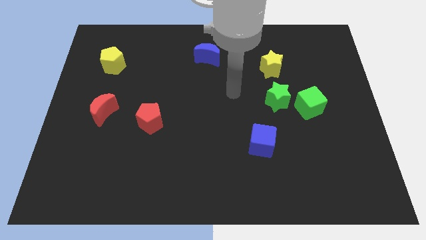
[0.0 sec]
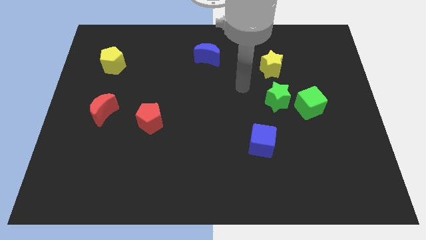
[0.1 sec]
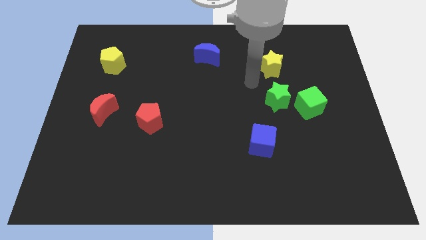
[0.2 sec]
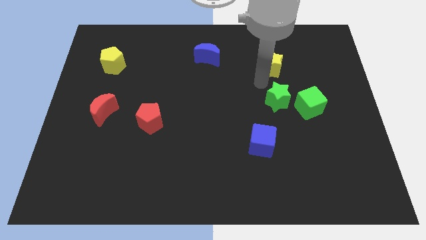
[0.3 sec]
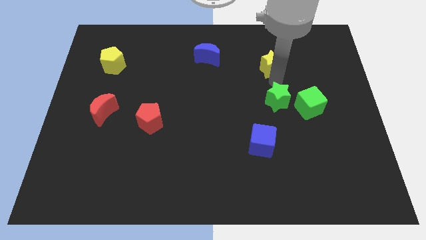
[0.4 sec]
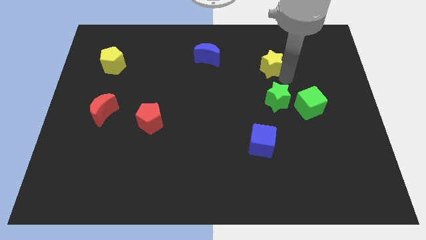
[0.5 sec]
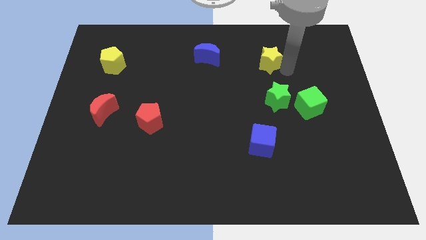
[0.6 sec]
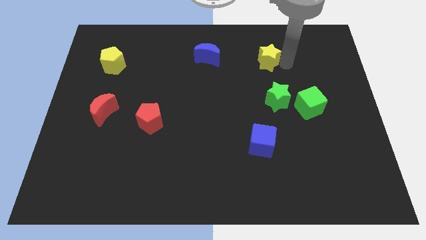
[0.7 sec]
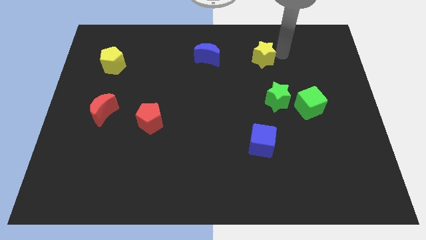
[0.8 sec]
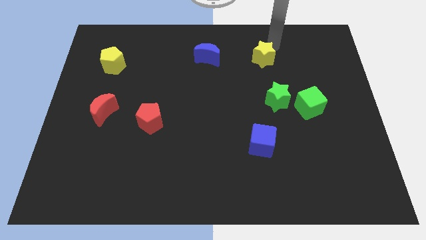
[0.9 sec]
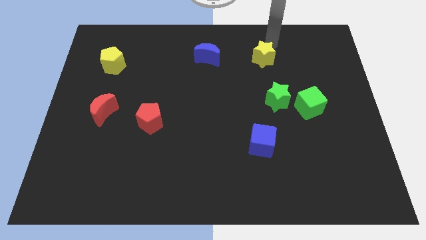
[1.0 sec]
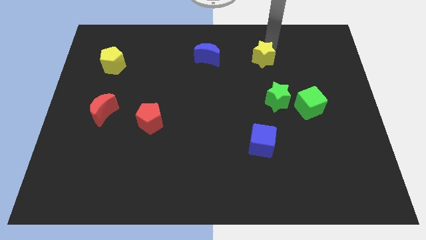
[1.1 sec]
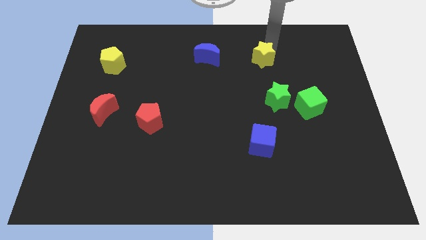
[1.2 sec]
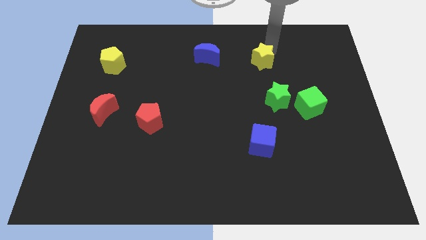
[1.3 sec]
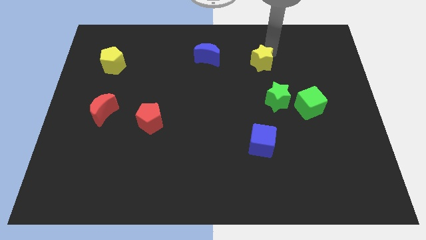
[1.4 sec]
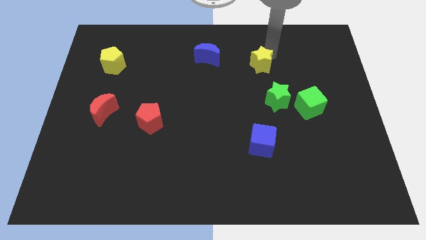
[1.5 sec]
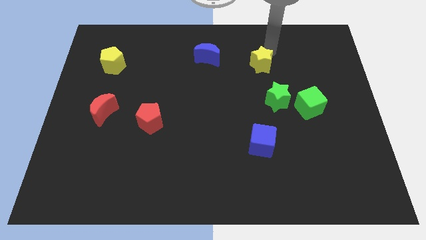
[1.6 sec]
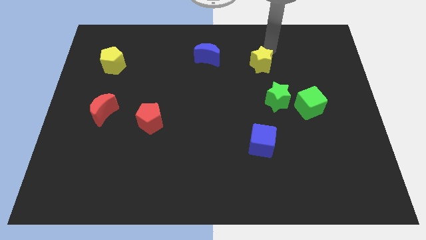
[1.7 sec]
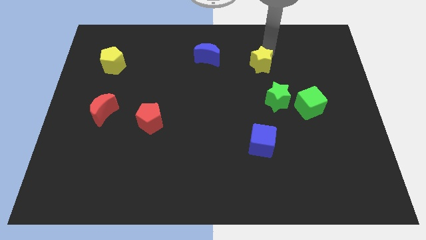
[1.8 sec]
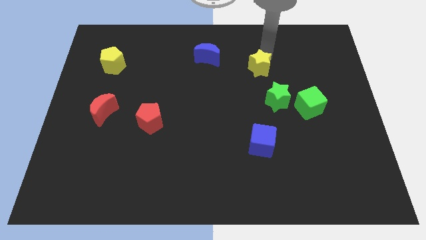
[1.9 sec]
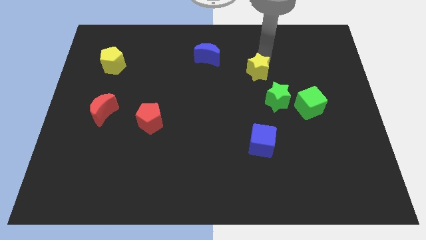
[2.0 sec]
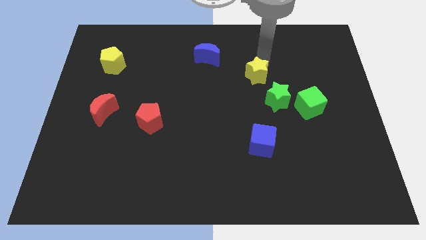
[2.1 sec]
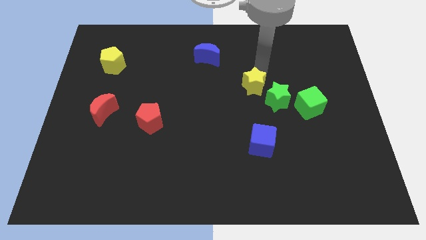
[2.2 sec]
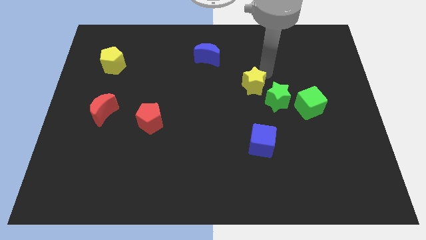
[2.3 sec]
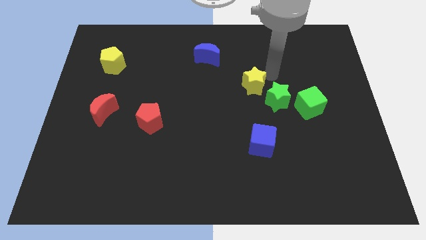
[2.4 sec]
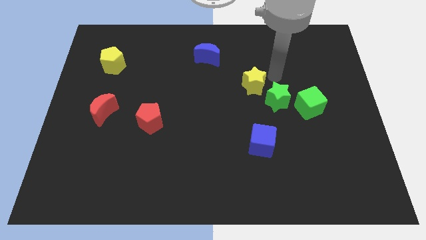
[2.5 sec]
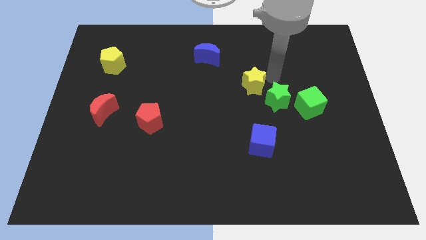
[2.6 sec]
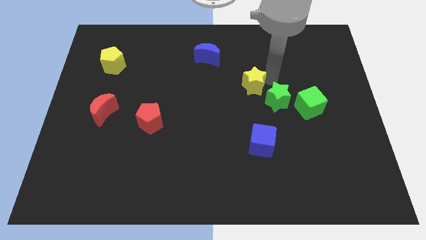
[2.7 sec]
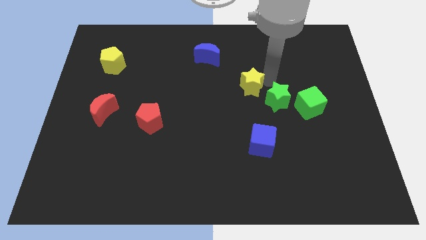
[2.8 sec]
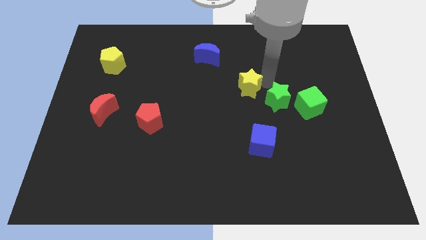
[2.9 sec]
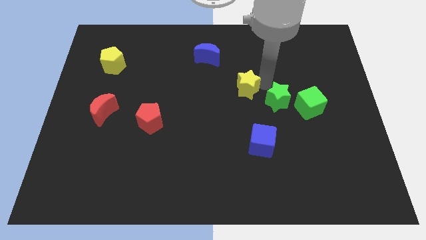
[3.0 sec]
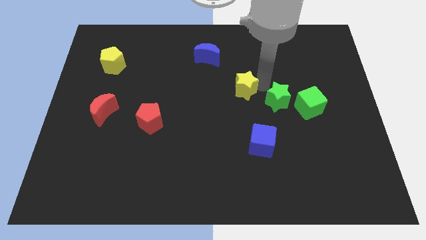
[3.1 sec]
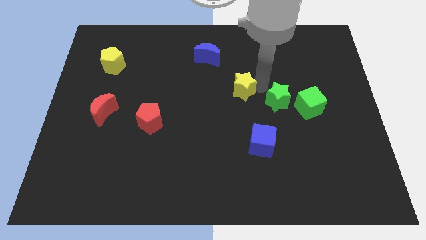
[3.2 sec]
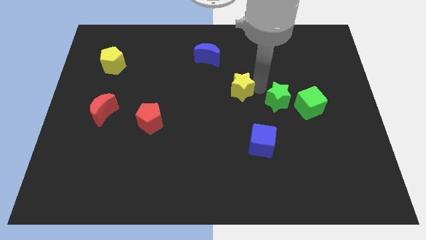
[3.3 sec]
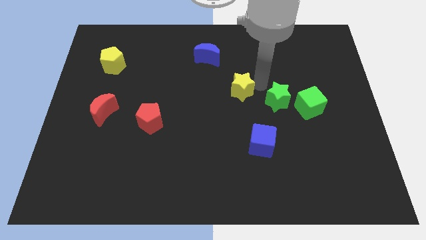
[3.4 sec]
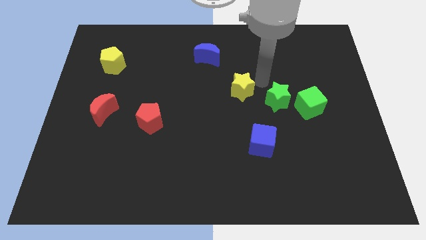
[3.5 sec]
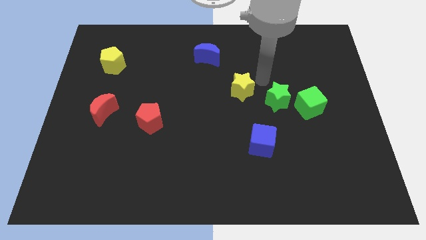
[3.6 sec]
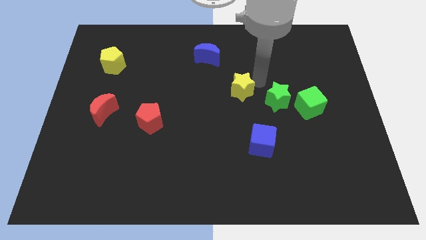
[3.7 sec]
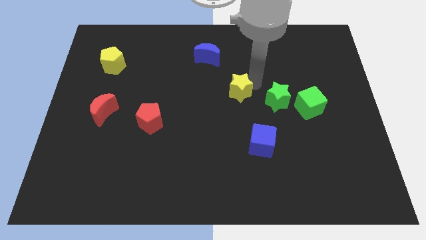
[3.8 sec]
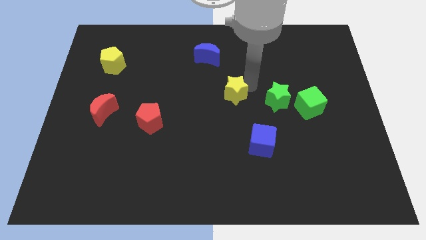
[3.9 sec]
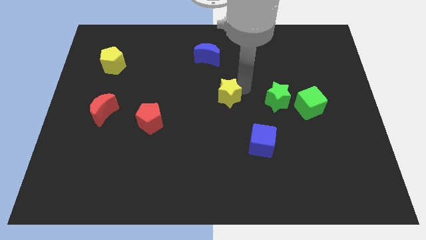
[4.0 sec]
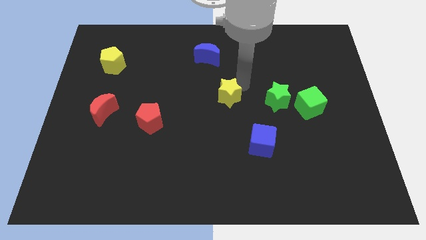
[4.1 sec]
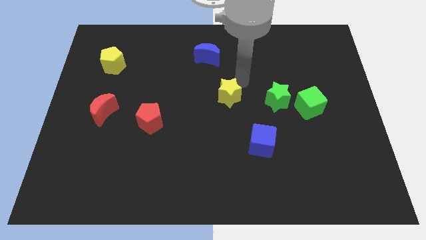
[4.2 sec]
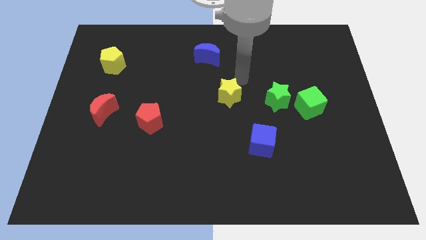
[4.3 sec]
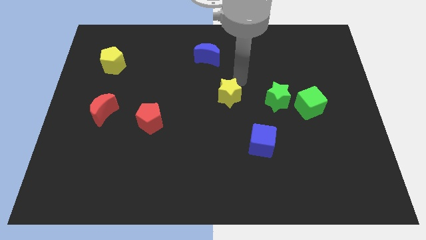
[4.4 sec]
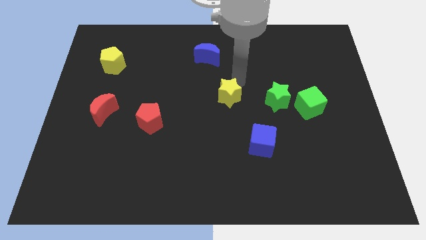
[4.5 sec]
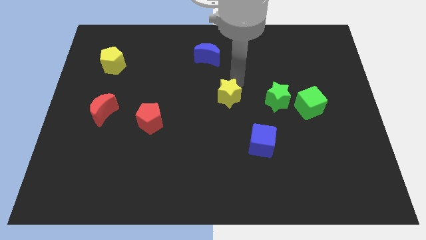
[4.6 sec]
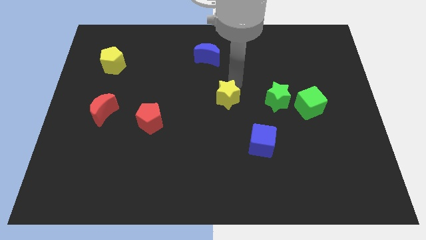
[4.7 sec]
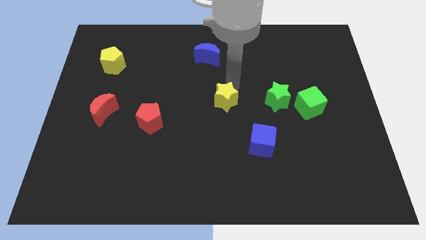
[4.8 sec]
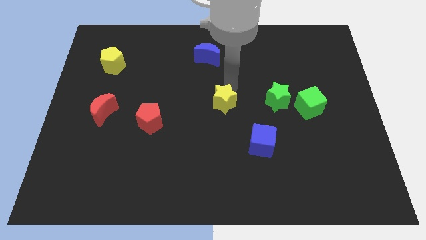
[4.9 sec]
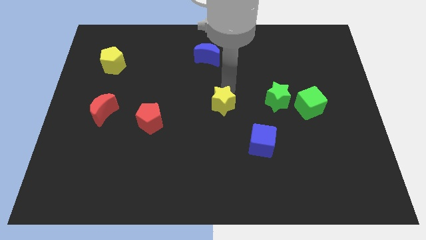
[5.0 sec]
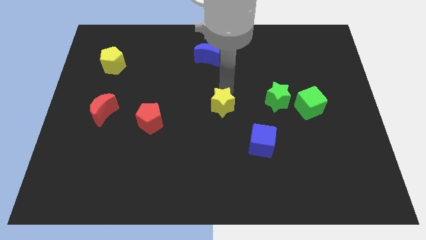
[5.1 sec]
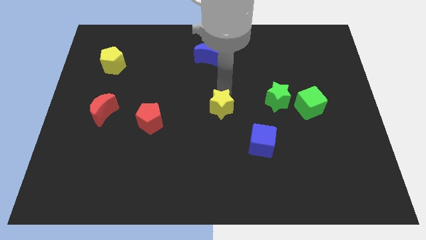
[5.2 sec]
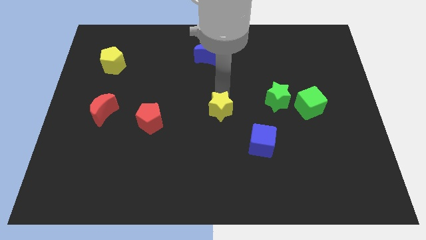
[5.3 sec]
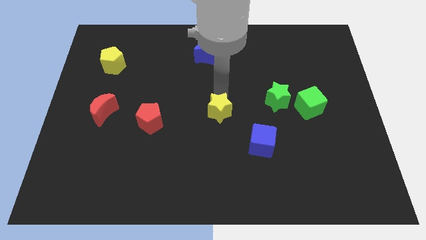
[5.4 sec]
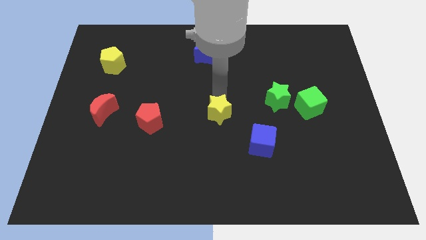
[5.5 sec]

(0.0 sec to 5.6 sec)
push the yellow star down and then to the left

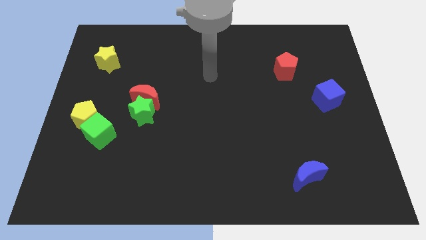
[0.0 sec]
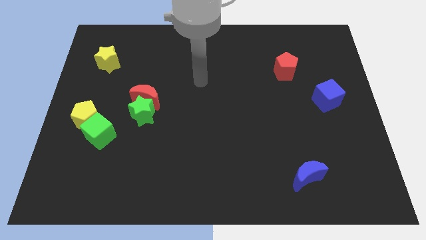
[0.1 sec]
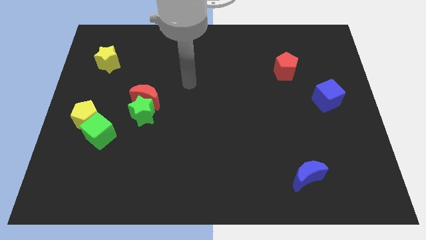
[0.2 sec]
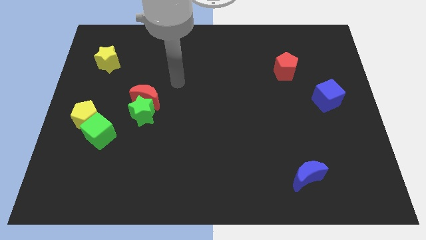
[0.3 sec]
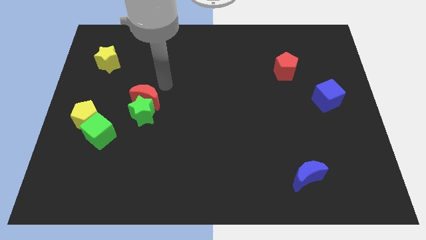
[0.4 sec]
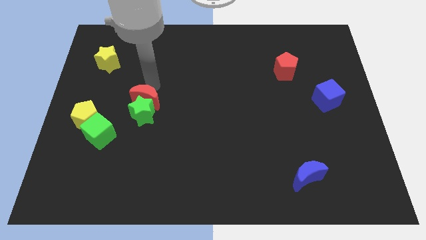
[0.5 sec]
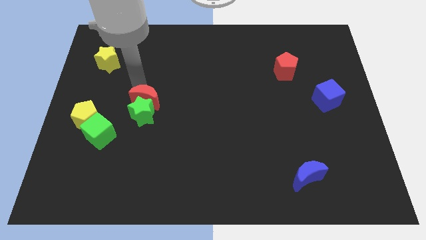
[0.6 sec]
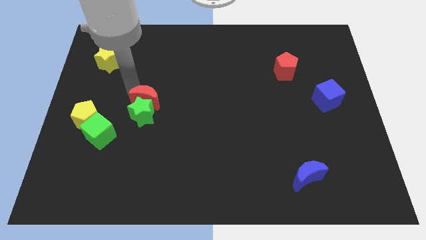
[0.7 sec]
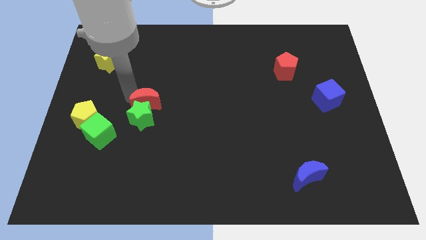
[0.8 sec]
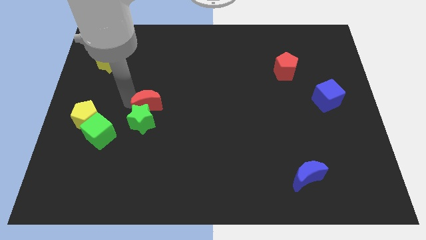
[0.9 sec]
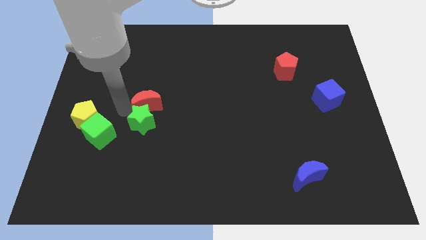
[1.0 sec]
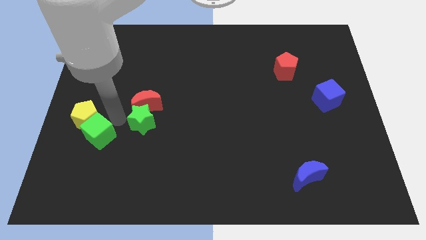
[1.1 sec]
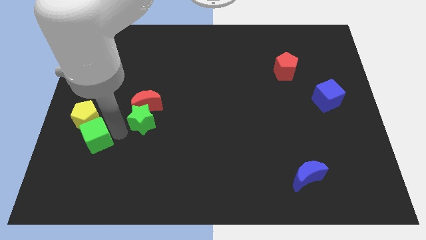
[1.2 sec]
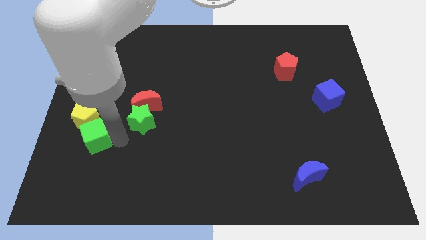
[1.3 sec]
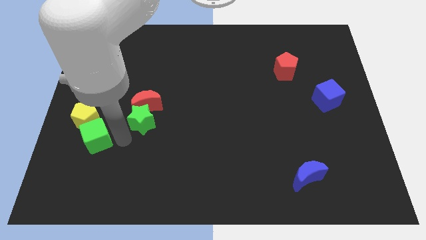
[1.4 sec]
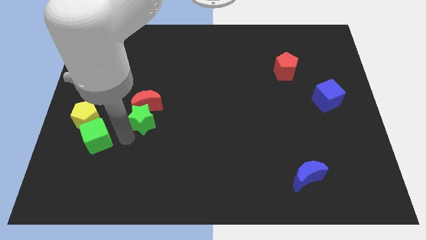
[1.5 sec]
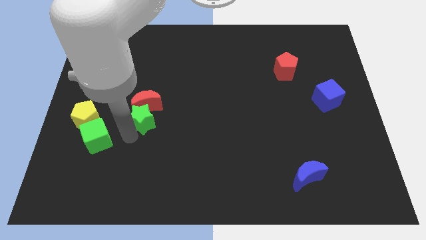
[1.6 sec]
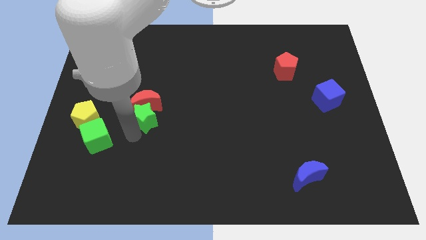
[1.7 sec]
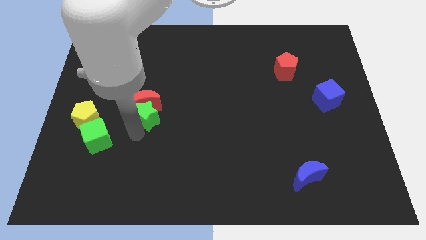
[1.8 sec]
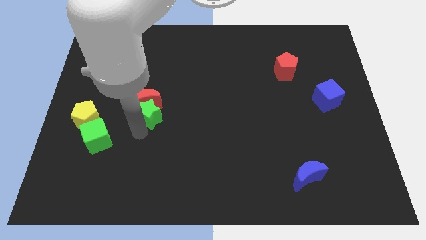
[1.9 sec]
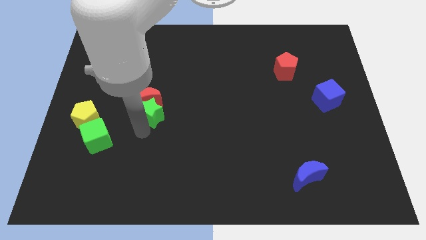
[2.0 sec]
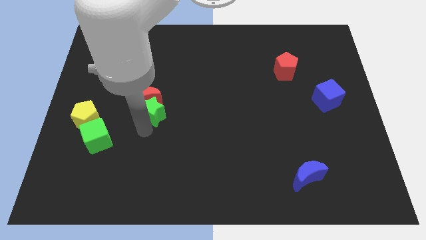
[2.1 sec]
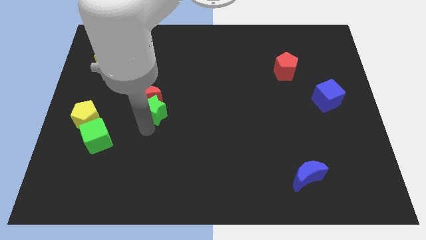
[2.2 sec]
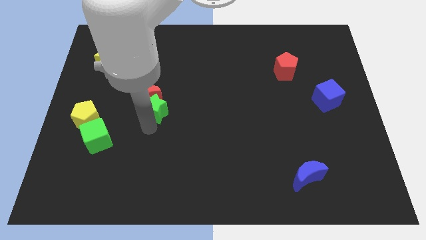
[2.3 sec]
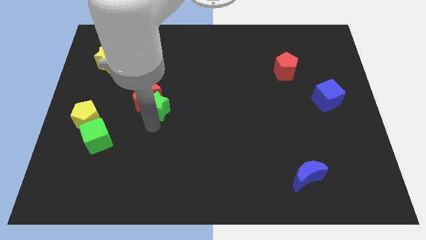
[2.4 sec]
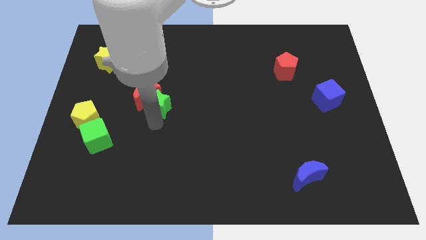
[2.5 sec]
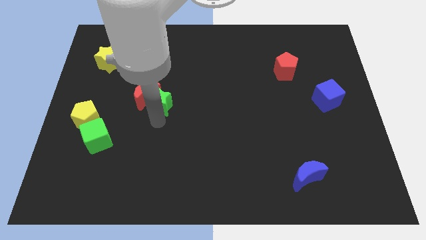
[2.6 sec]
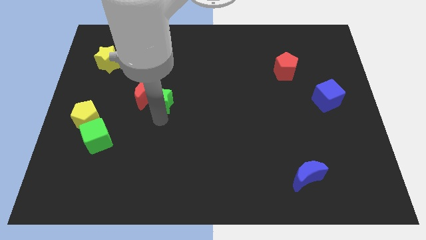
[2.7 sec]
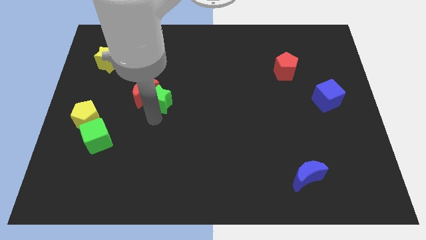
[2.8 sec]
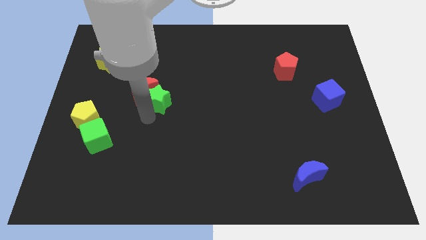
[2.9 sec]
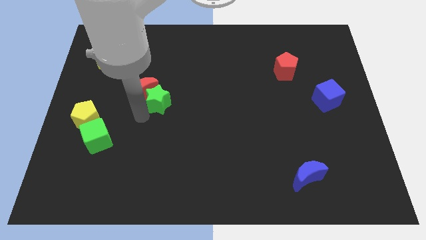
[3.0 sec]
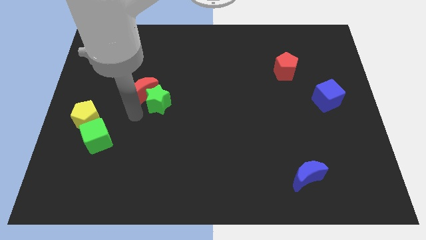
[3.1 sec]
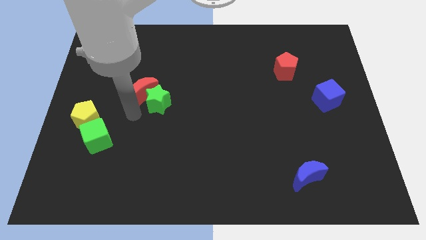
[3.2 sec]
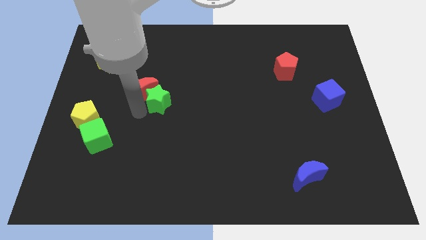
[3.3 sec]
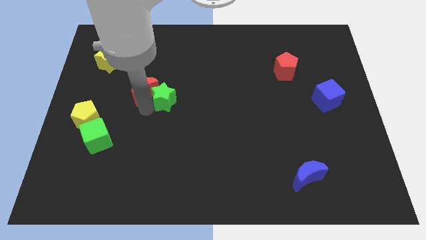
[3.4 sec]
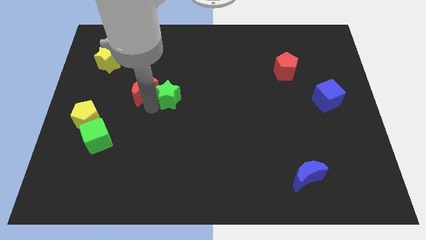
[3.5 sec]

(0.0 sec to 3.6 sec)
slide the green star a little up and to the right diagonally
